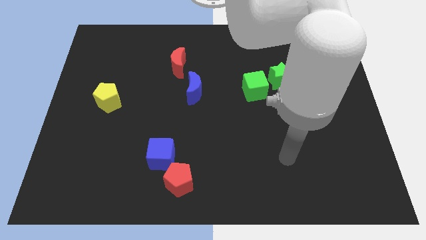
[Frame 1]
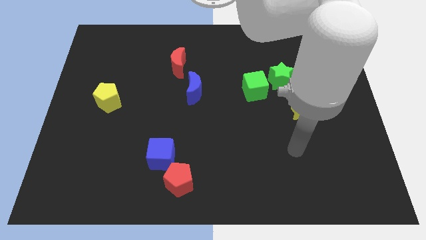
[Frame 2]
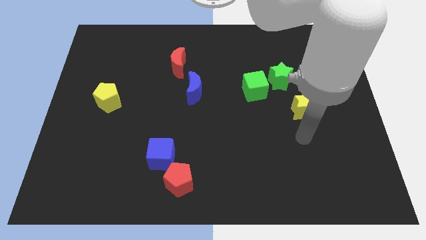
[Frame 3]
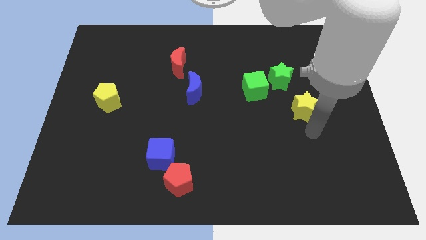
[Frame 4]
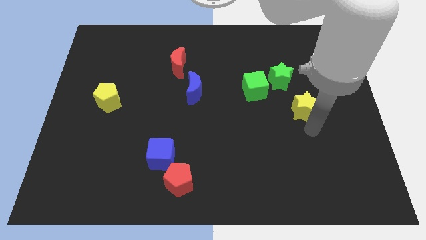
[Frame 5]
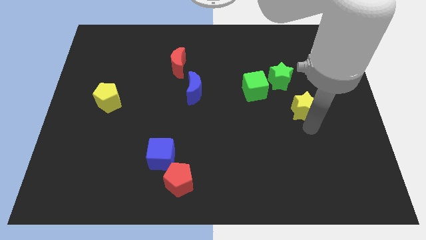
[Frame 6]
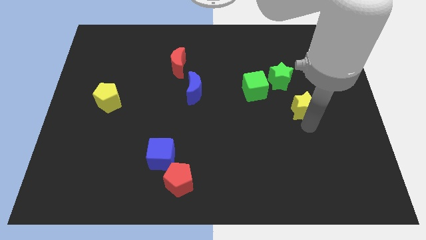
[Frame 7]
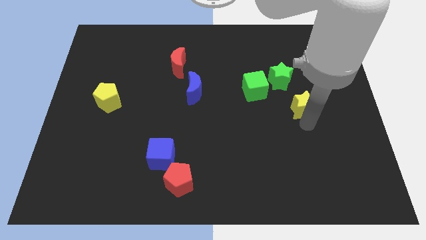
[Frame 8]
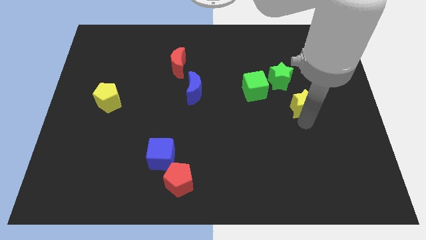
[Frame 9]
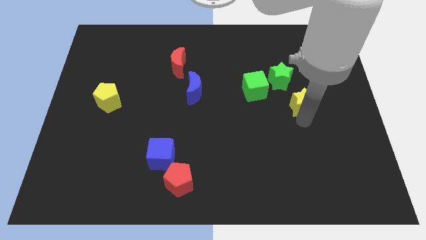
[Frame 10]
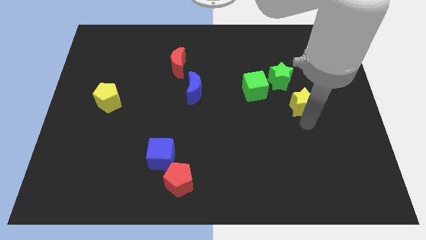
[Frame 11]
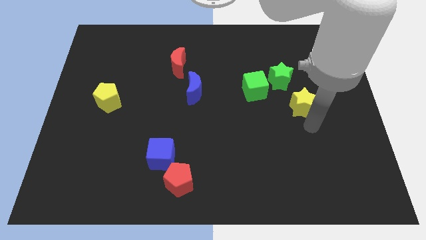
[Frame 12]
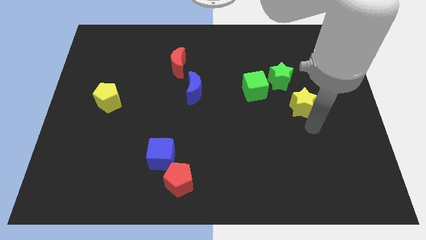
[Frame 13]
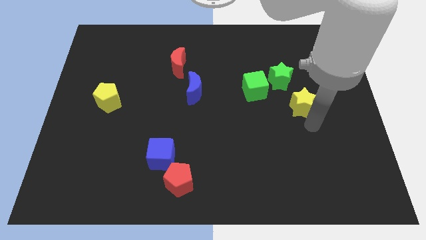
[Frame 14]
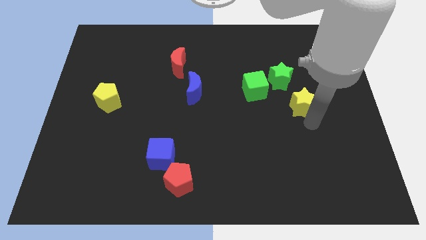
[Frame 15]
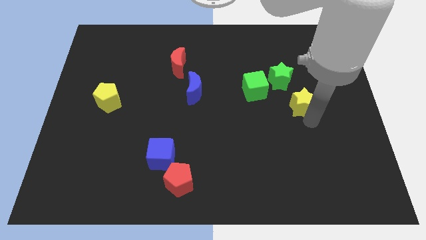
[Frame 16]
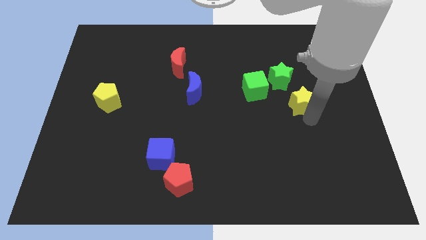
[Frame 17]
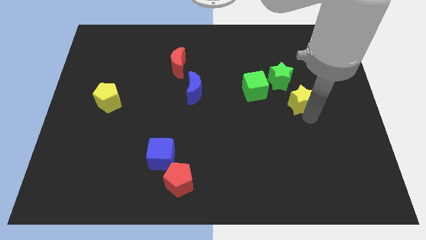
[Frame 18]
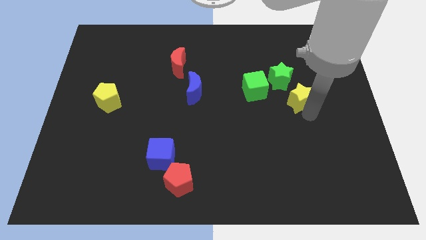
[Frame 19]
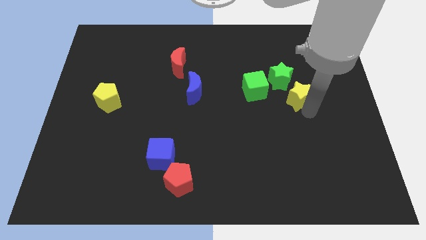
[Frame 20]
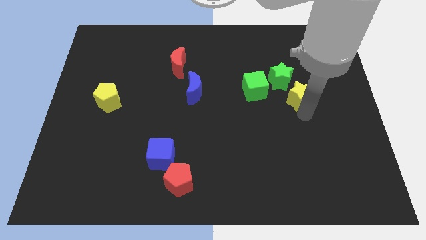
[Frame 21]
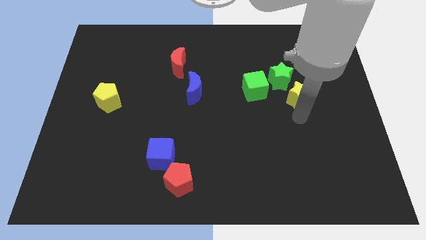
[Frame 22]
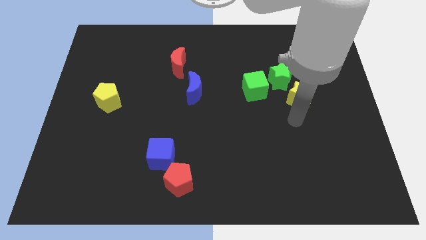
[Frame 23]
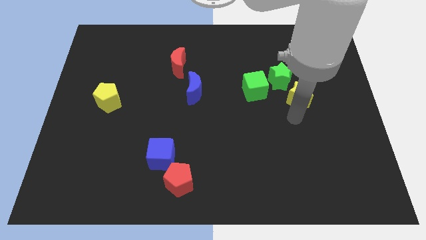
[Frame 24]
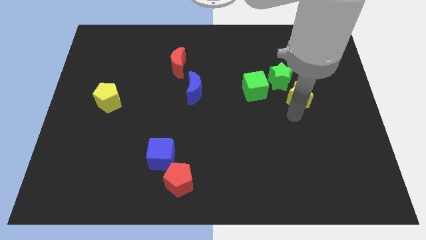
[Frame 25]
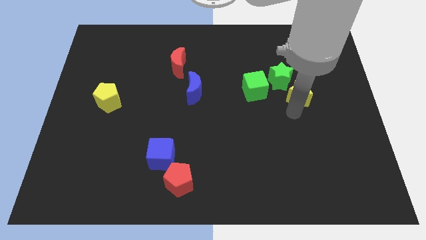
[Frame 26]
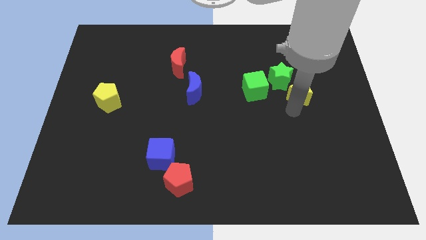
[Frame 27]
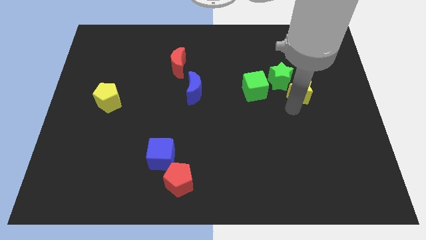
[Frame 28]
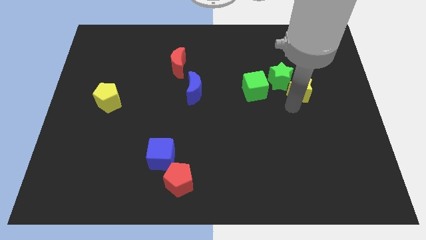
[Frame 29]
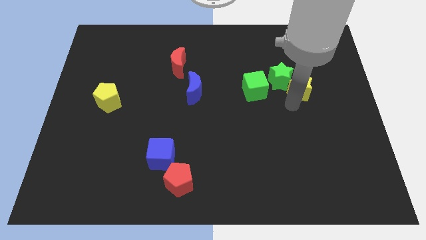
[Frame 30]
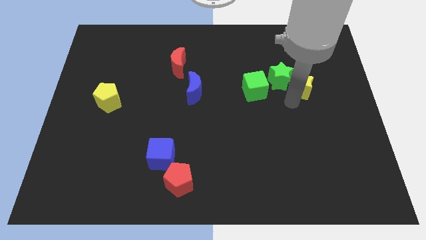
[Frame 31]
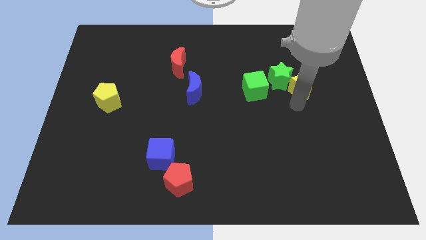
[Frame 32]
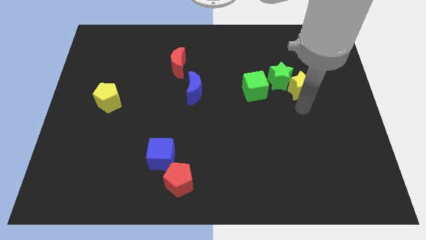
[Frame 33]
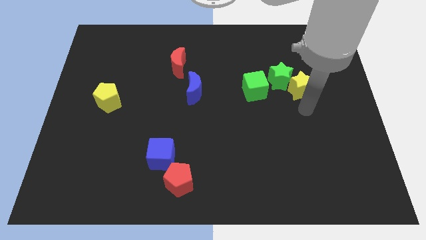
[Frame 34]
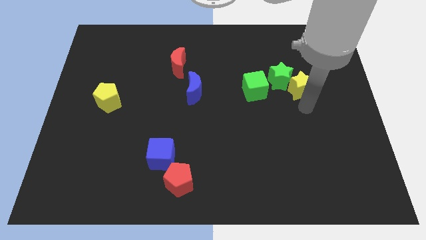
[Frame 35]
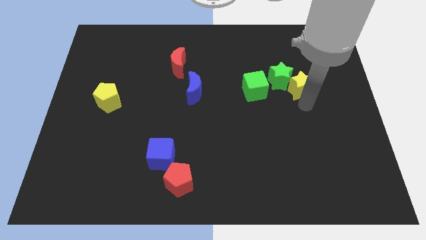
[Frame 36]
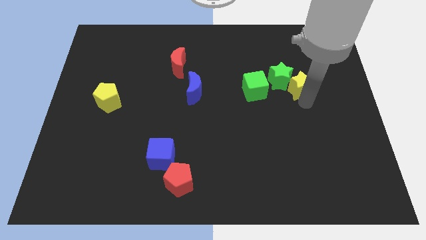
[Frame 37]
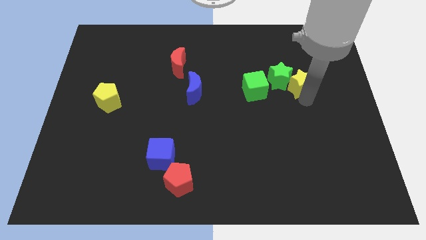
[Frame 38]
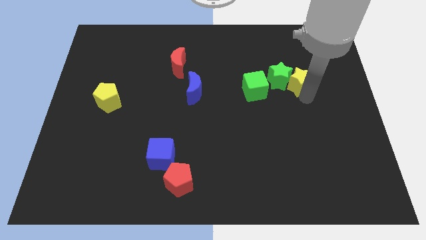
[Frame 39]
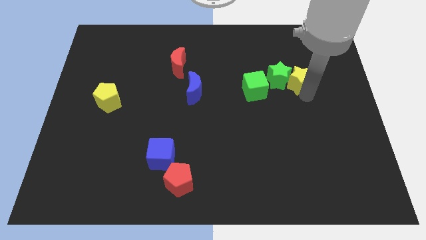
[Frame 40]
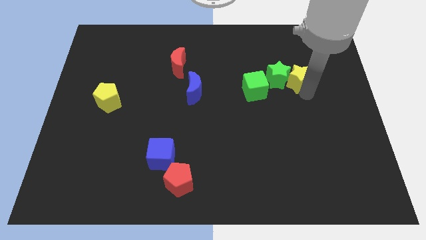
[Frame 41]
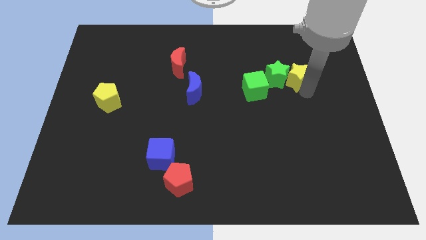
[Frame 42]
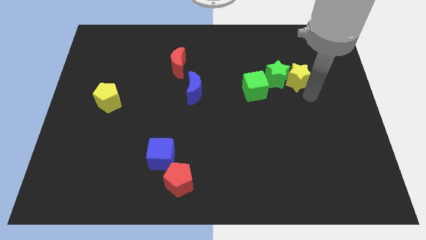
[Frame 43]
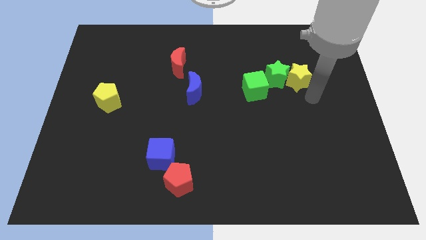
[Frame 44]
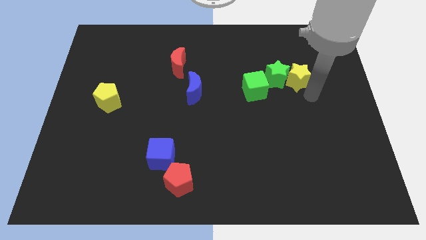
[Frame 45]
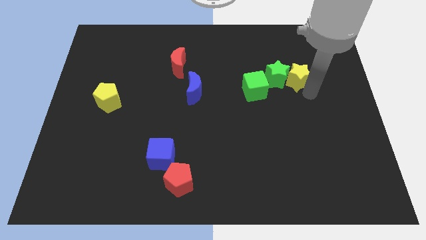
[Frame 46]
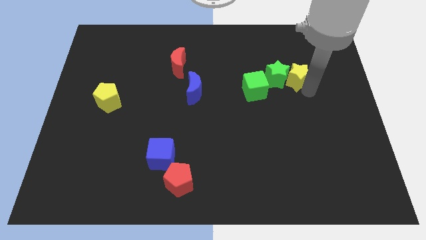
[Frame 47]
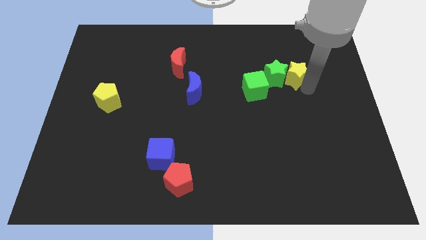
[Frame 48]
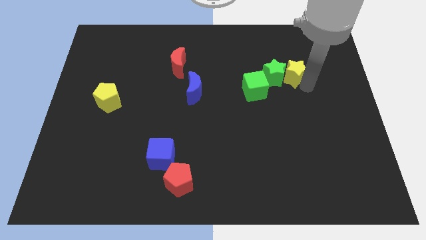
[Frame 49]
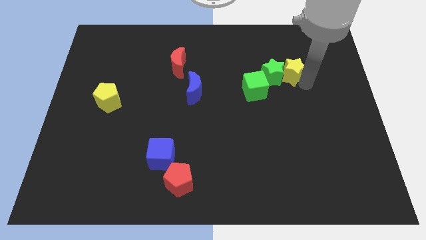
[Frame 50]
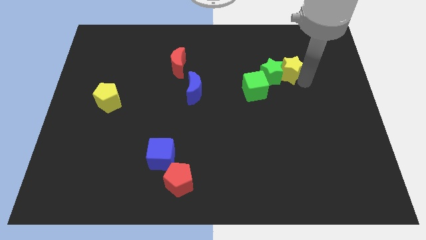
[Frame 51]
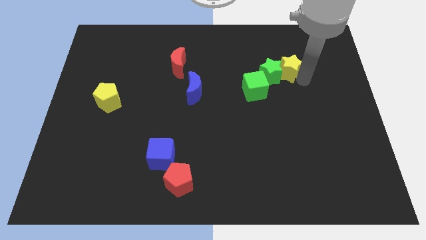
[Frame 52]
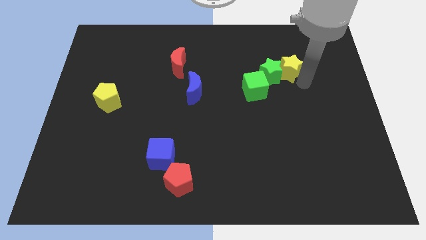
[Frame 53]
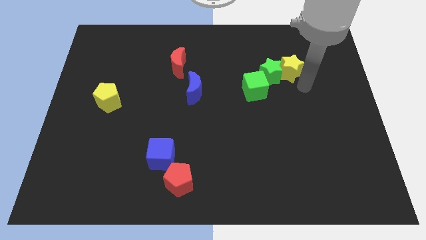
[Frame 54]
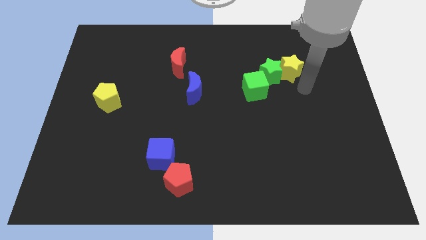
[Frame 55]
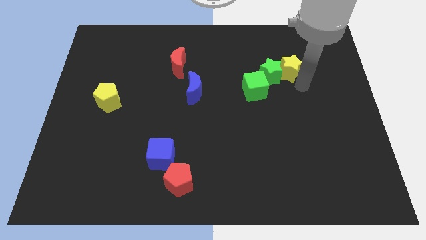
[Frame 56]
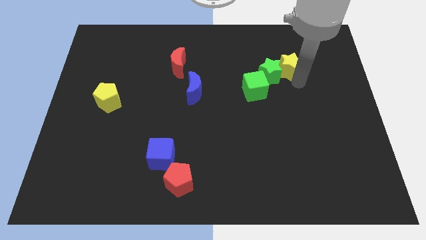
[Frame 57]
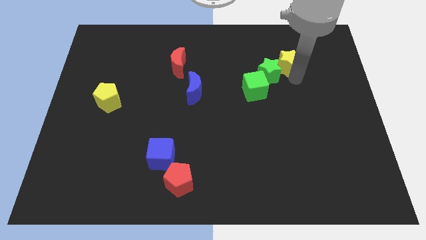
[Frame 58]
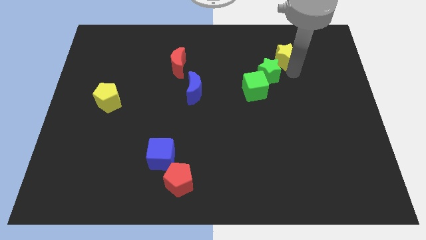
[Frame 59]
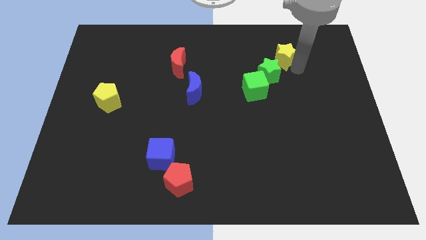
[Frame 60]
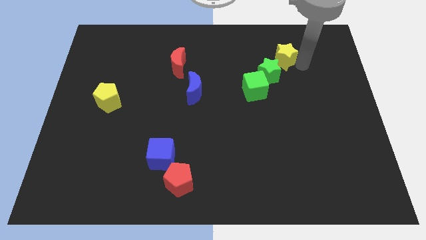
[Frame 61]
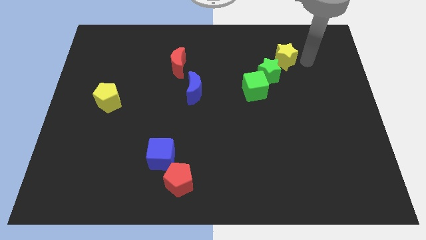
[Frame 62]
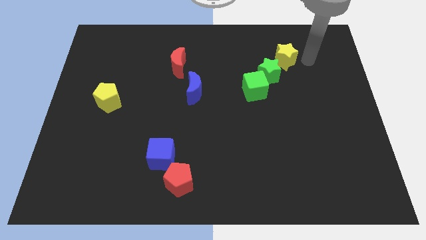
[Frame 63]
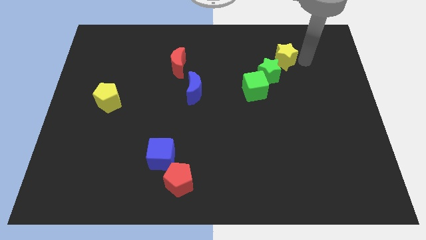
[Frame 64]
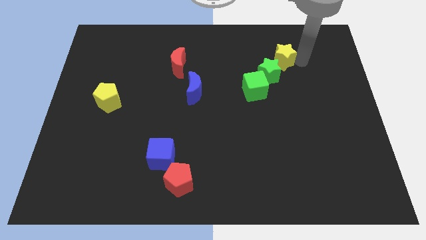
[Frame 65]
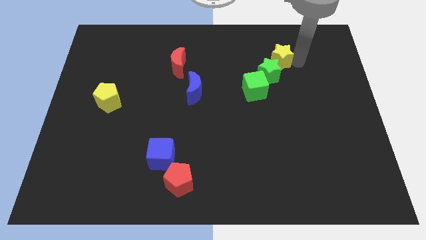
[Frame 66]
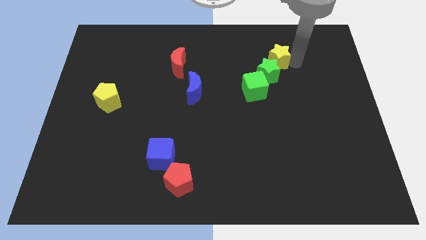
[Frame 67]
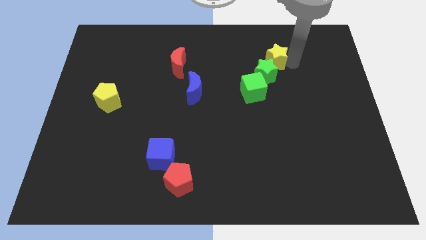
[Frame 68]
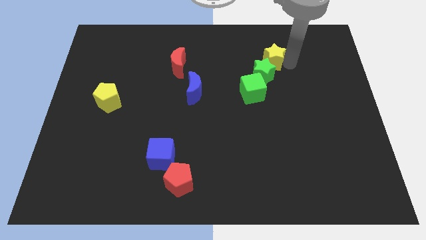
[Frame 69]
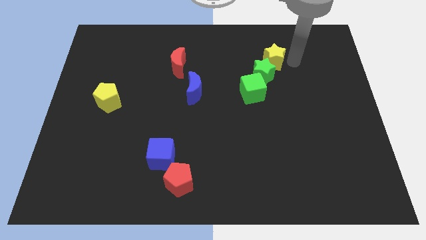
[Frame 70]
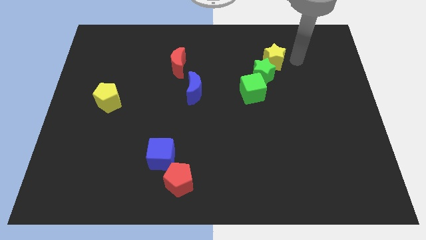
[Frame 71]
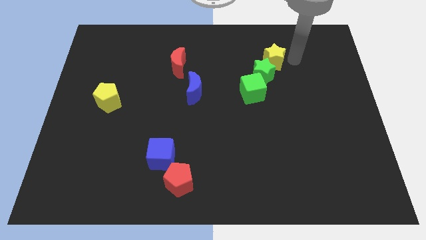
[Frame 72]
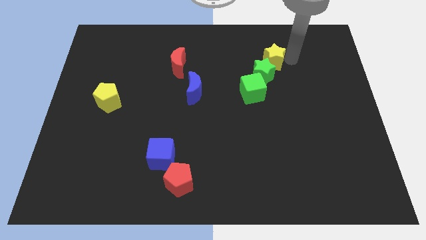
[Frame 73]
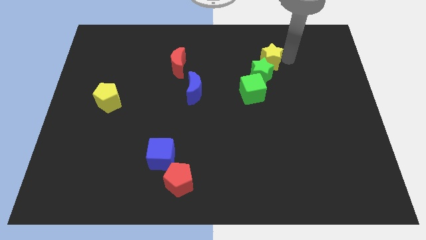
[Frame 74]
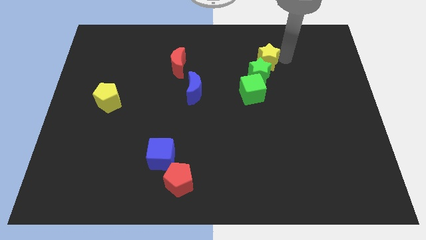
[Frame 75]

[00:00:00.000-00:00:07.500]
push the yellow star to the top side of the green cube
